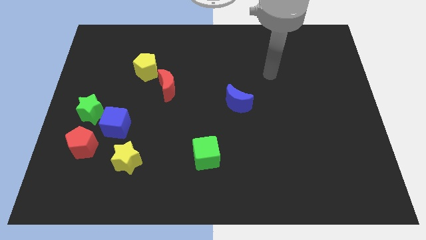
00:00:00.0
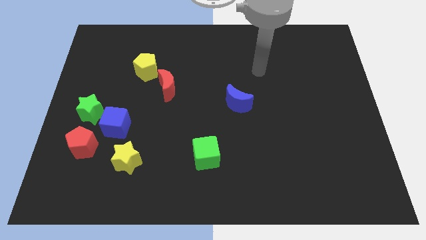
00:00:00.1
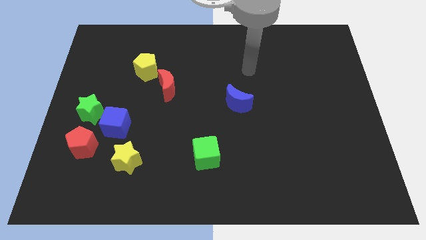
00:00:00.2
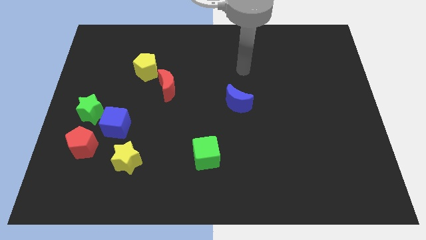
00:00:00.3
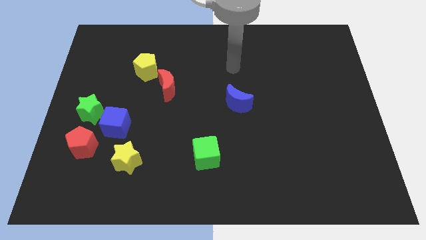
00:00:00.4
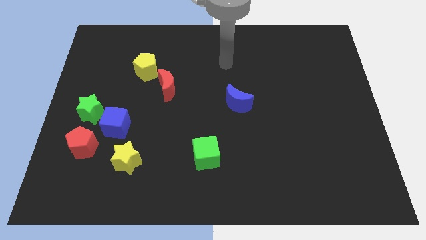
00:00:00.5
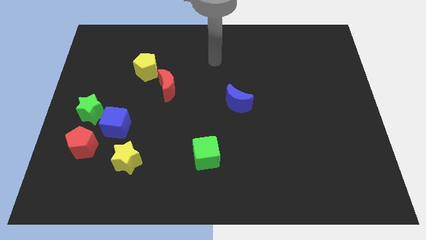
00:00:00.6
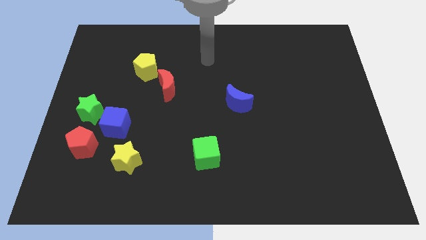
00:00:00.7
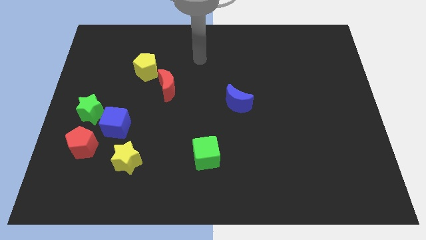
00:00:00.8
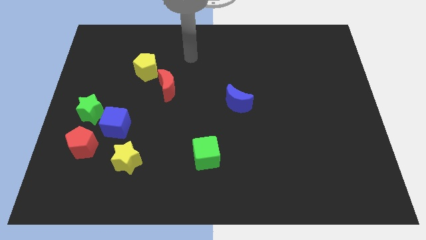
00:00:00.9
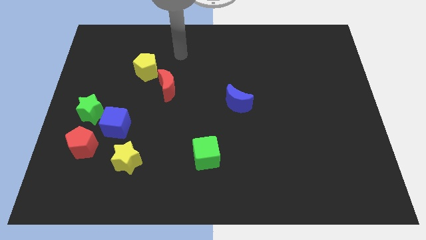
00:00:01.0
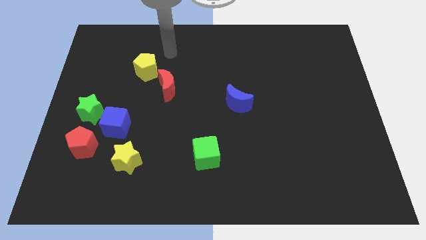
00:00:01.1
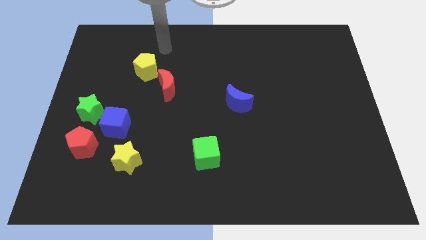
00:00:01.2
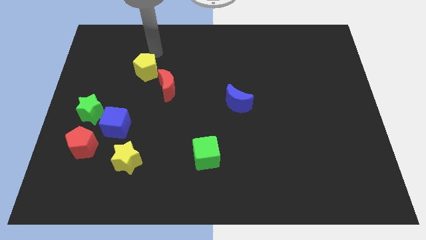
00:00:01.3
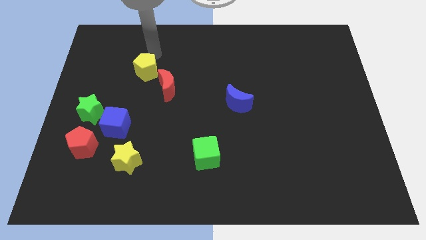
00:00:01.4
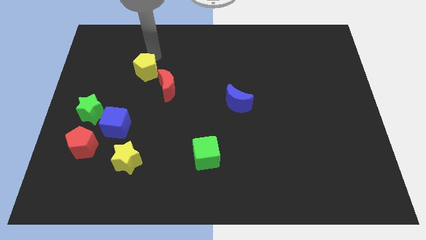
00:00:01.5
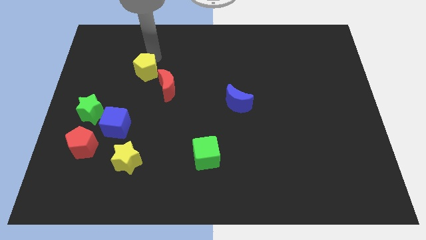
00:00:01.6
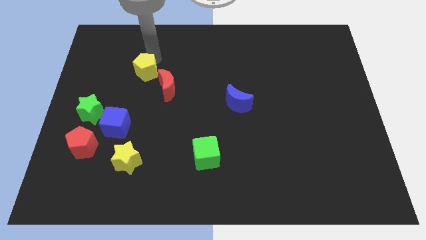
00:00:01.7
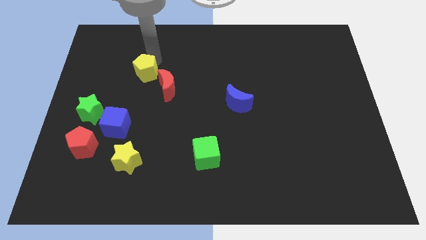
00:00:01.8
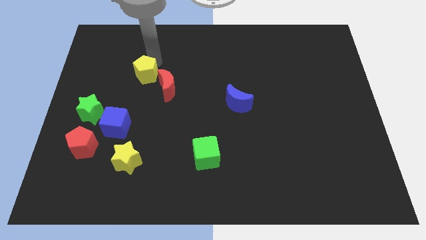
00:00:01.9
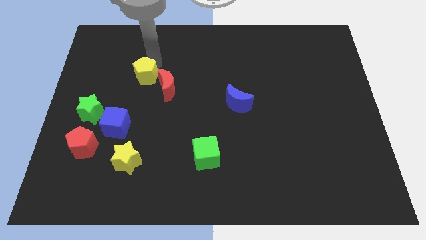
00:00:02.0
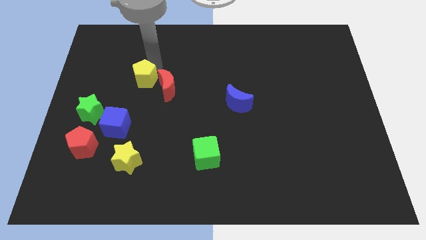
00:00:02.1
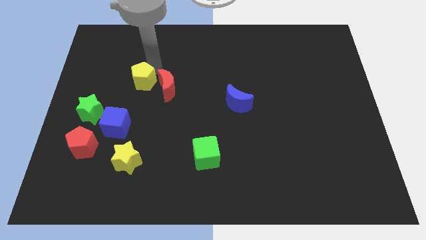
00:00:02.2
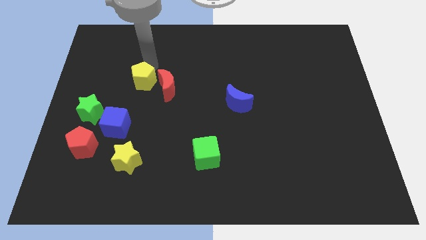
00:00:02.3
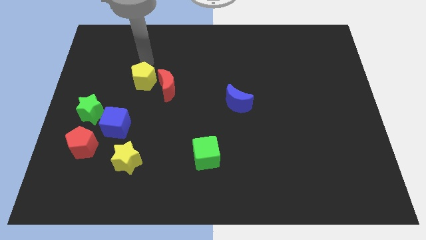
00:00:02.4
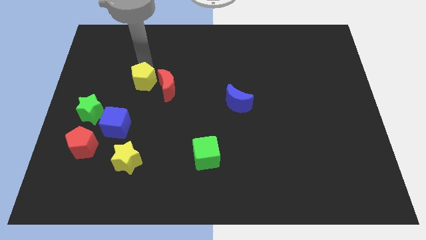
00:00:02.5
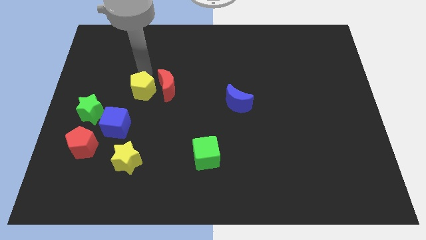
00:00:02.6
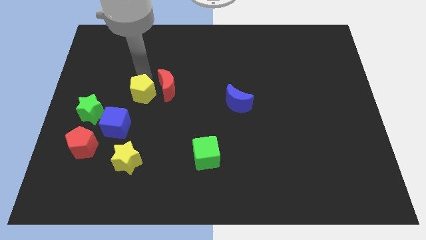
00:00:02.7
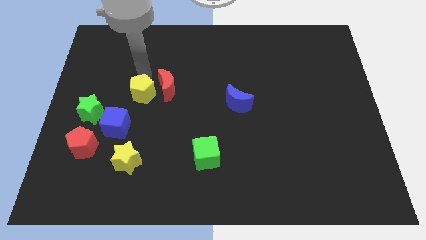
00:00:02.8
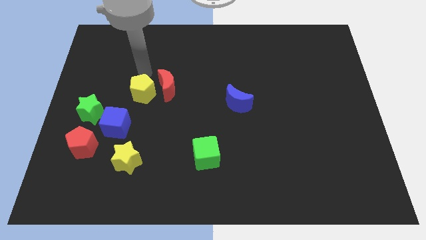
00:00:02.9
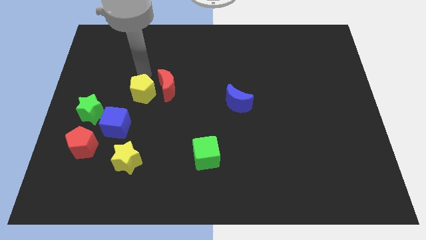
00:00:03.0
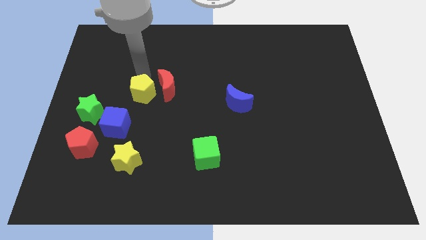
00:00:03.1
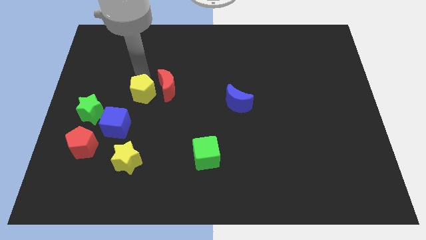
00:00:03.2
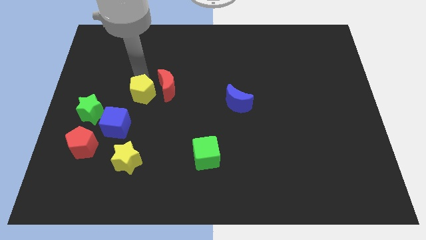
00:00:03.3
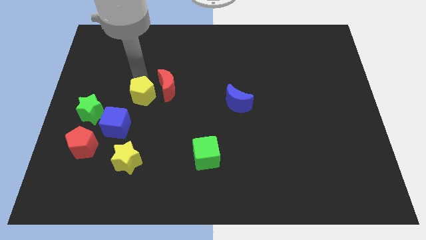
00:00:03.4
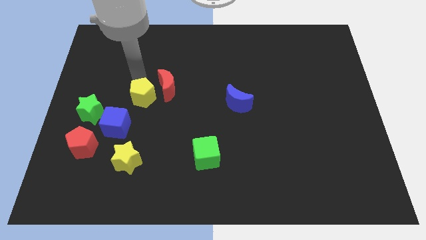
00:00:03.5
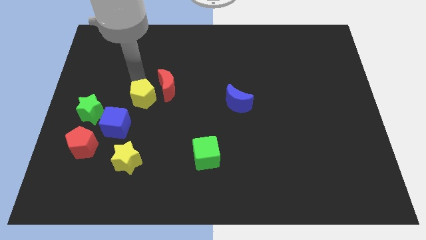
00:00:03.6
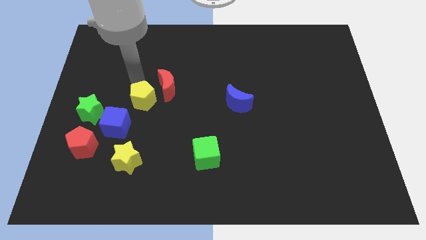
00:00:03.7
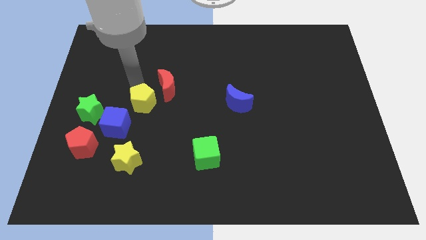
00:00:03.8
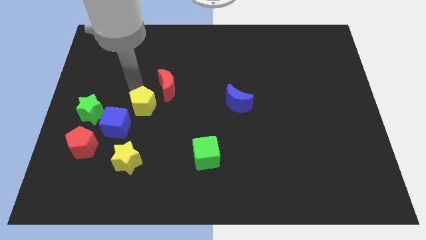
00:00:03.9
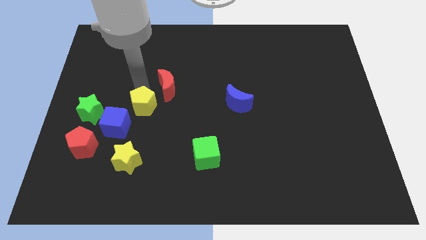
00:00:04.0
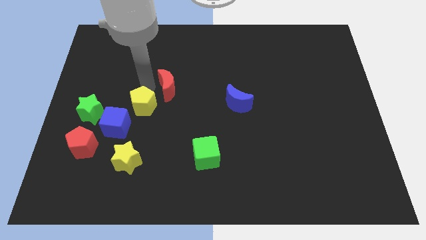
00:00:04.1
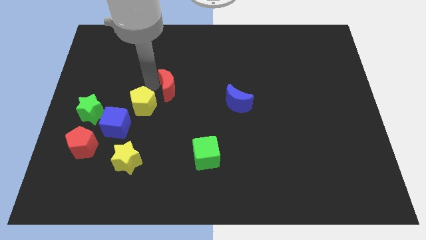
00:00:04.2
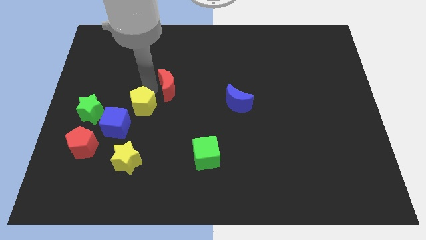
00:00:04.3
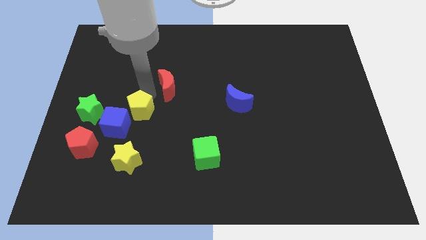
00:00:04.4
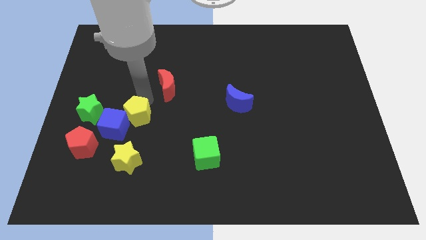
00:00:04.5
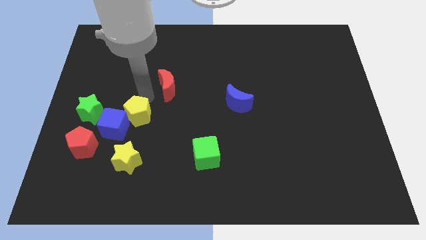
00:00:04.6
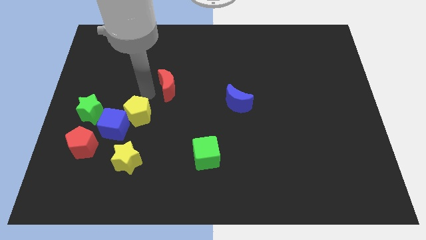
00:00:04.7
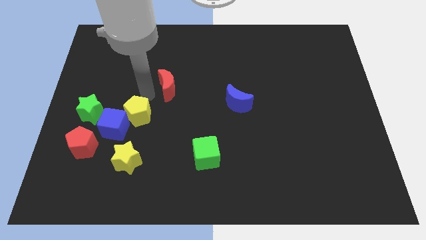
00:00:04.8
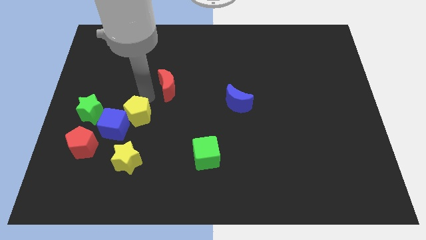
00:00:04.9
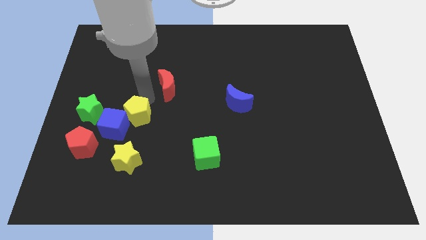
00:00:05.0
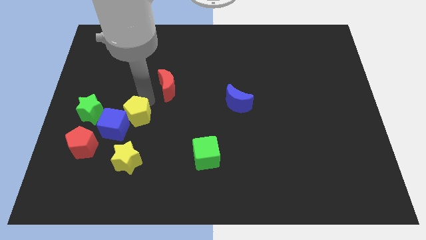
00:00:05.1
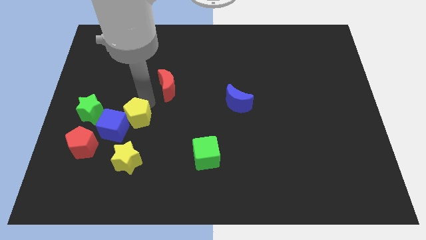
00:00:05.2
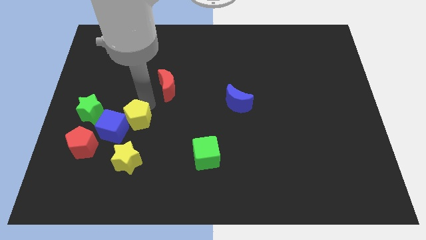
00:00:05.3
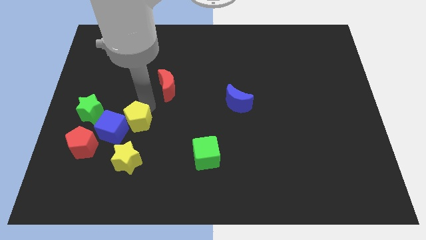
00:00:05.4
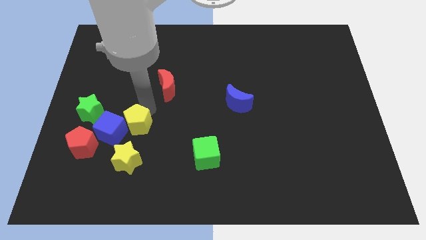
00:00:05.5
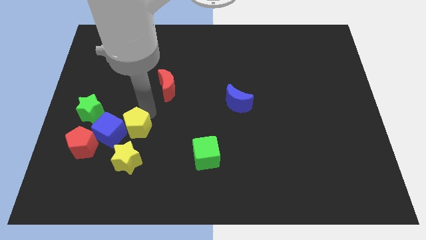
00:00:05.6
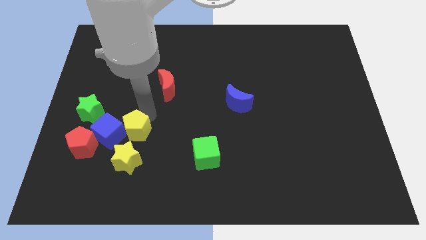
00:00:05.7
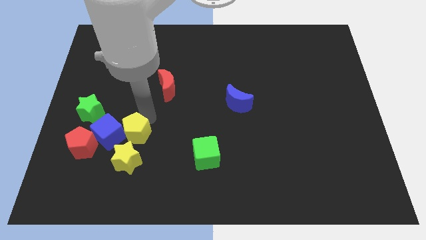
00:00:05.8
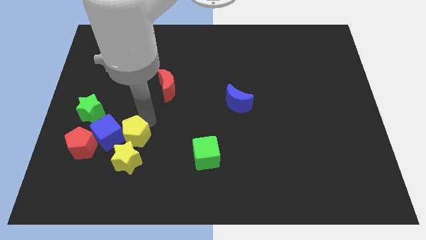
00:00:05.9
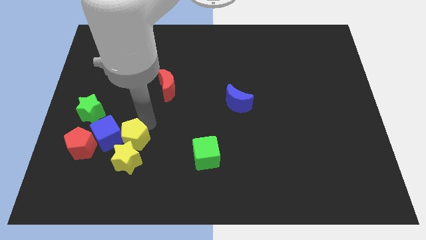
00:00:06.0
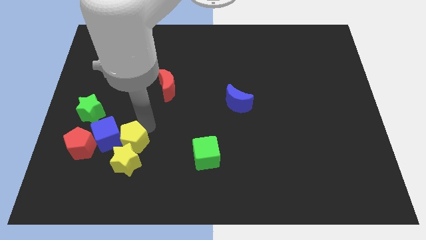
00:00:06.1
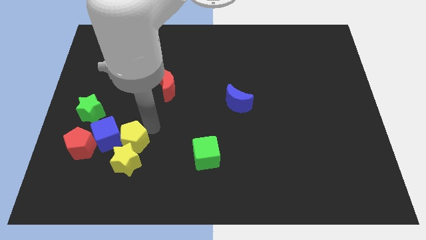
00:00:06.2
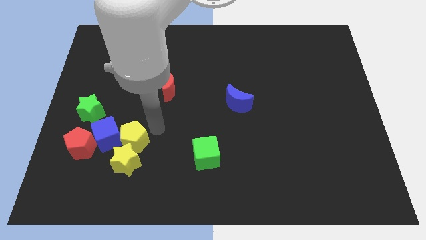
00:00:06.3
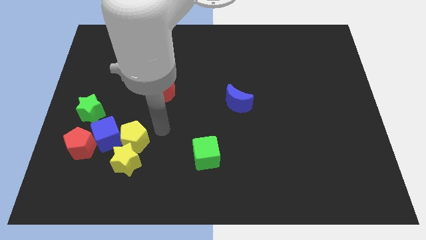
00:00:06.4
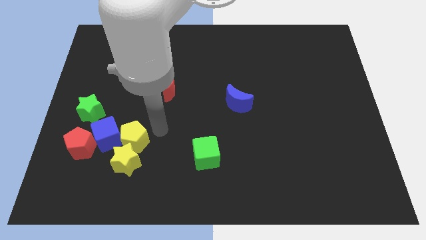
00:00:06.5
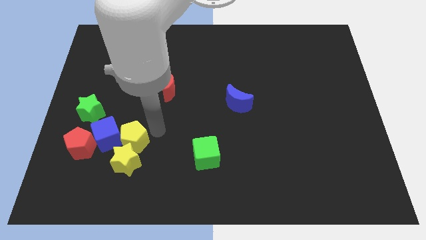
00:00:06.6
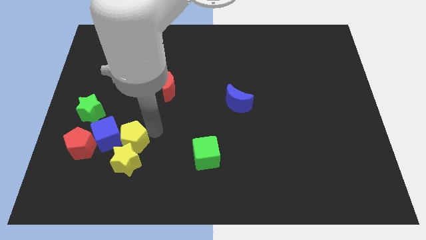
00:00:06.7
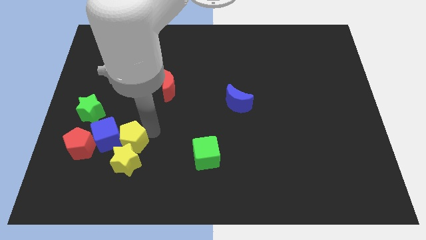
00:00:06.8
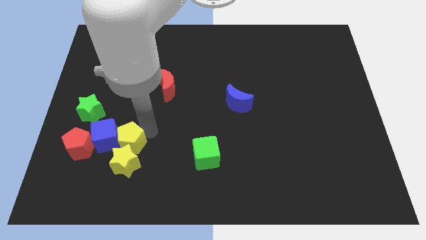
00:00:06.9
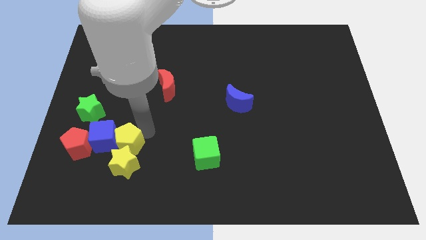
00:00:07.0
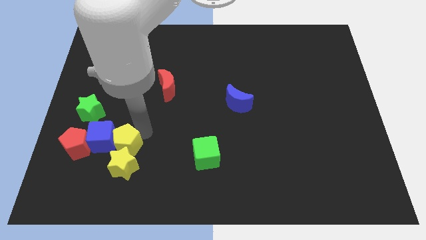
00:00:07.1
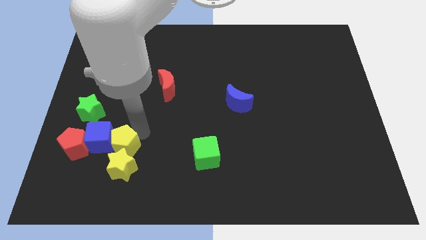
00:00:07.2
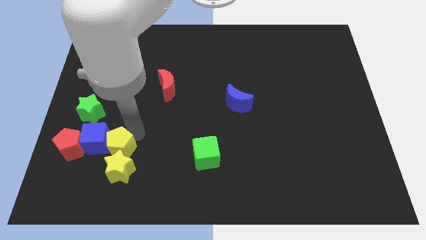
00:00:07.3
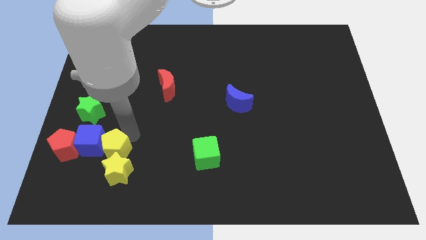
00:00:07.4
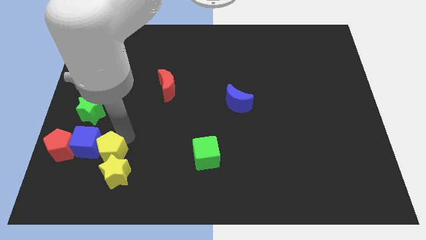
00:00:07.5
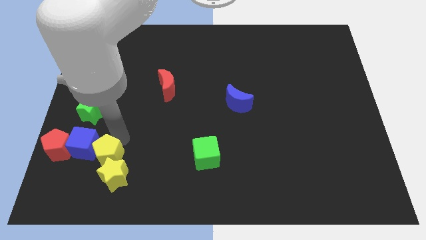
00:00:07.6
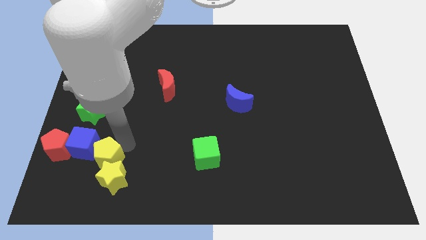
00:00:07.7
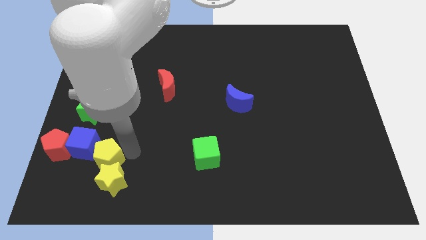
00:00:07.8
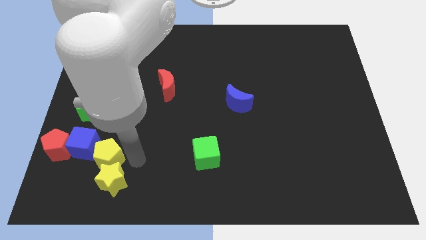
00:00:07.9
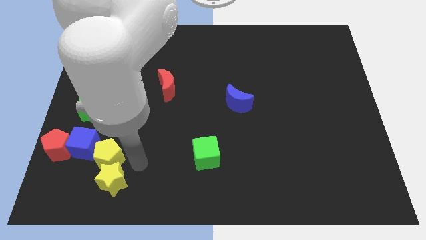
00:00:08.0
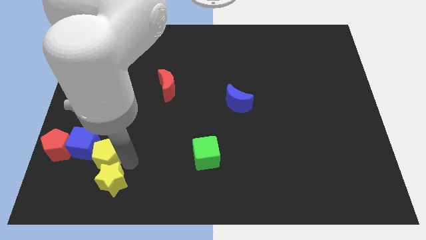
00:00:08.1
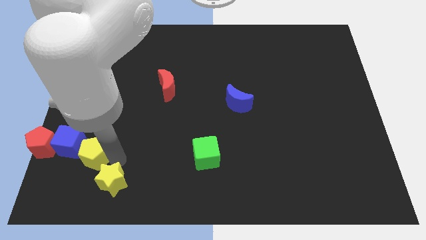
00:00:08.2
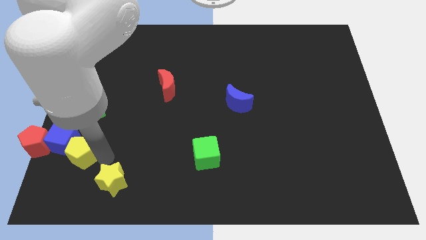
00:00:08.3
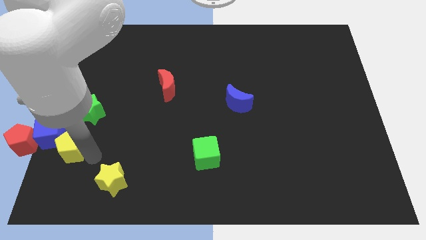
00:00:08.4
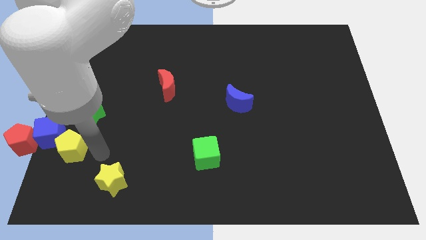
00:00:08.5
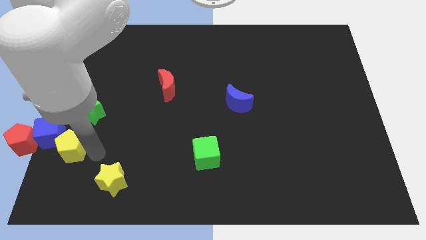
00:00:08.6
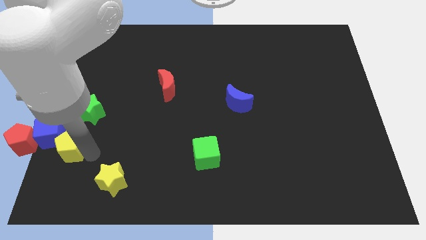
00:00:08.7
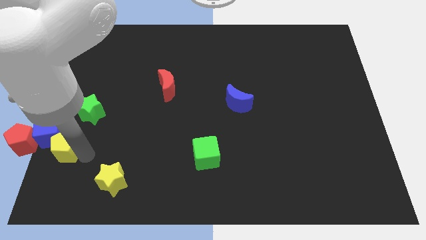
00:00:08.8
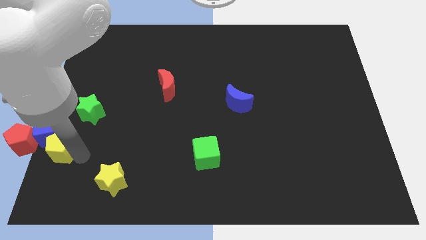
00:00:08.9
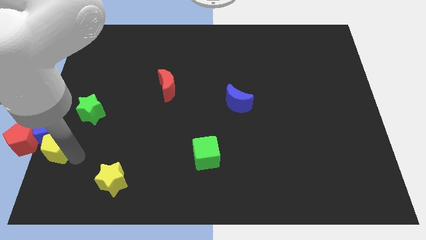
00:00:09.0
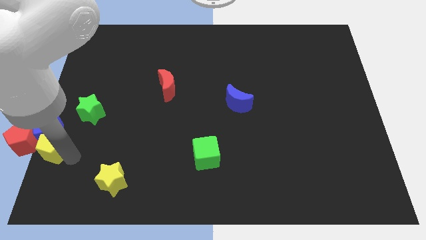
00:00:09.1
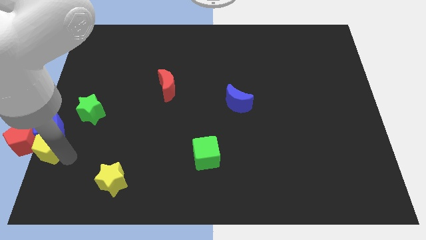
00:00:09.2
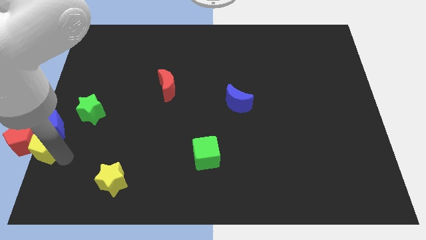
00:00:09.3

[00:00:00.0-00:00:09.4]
push the yellow pentagon towards the red pentagon
